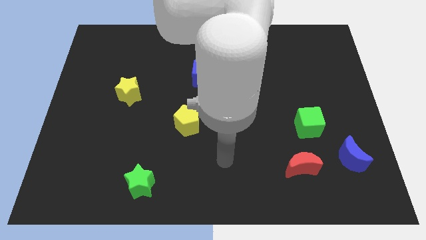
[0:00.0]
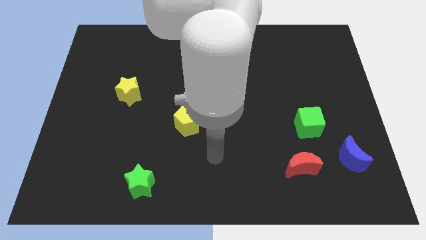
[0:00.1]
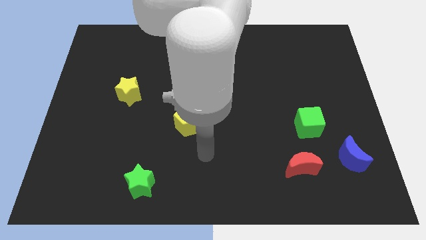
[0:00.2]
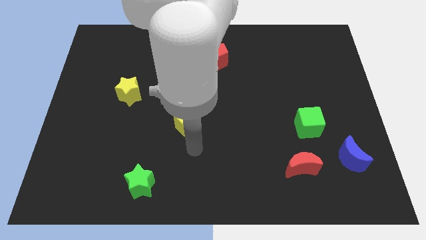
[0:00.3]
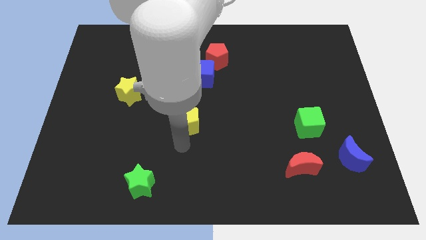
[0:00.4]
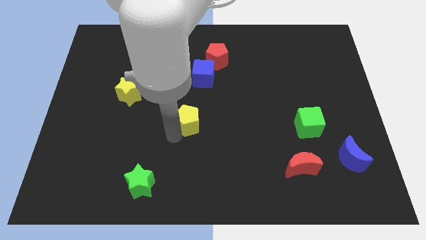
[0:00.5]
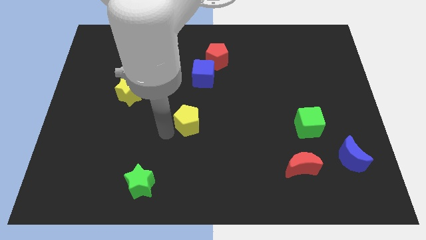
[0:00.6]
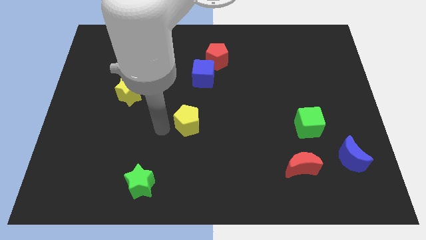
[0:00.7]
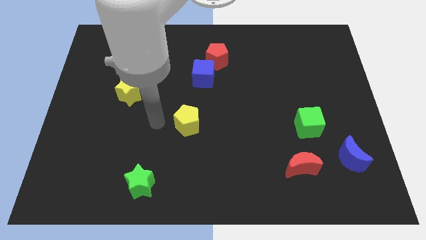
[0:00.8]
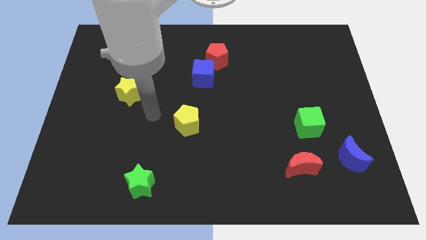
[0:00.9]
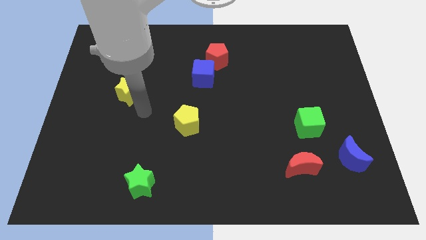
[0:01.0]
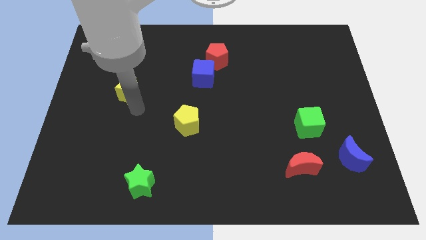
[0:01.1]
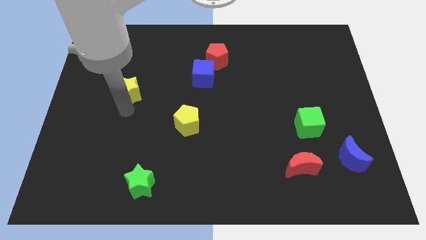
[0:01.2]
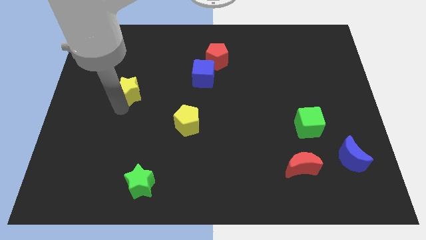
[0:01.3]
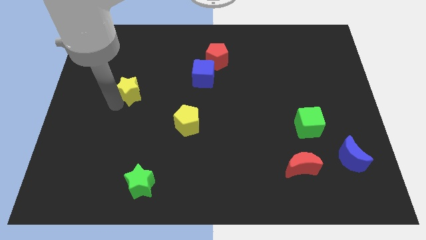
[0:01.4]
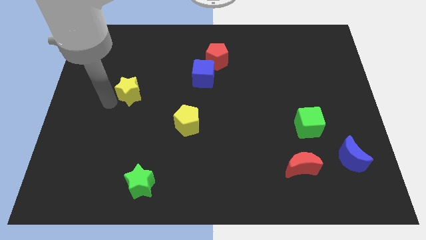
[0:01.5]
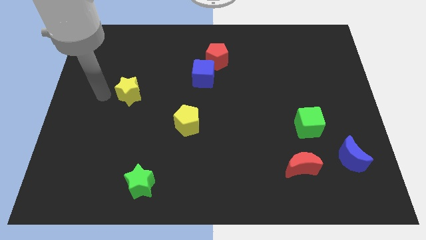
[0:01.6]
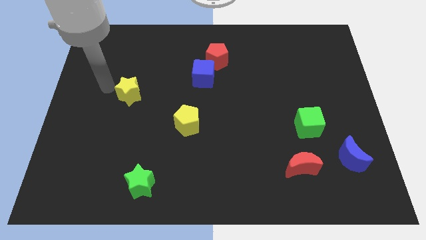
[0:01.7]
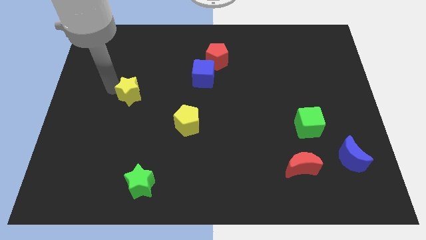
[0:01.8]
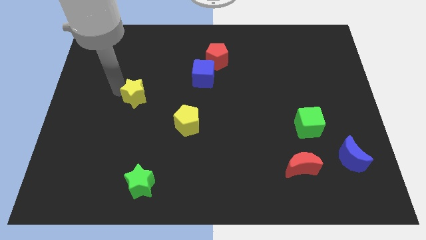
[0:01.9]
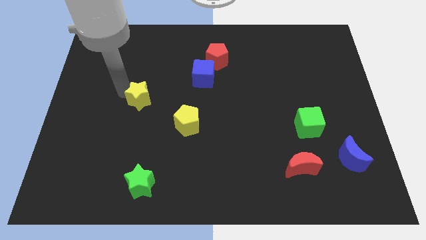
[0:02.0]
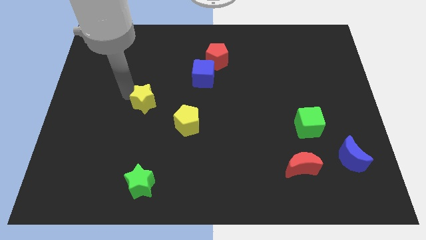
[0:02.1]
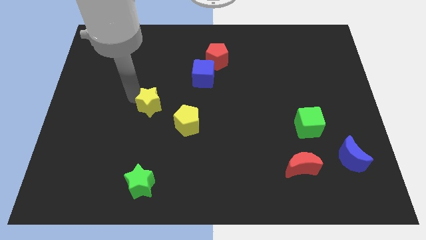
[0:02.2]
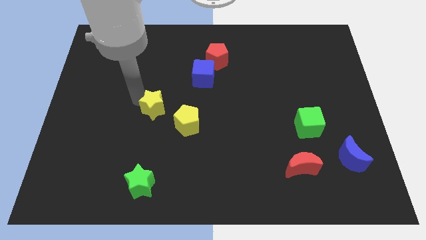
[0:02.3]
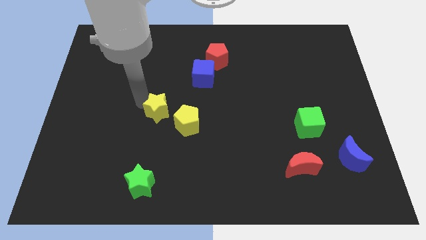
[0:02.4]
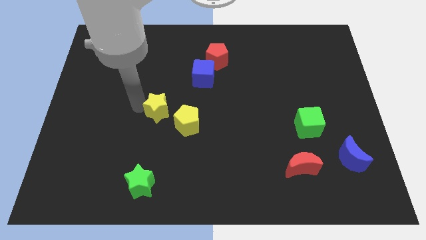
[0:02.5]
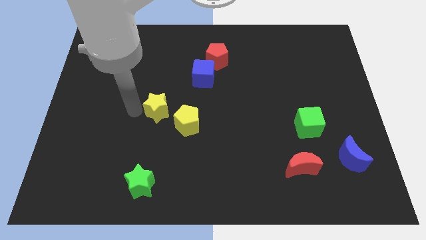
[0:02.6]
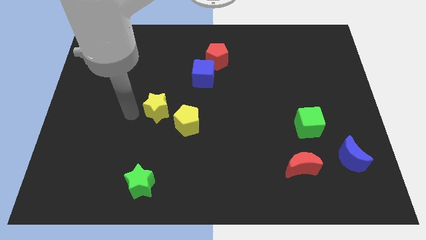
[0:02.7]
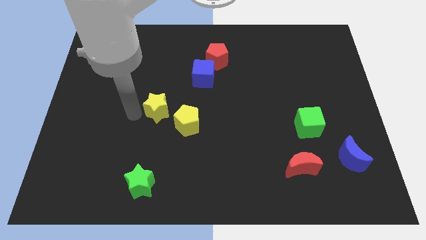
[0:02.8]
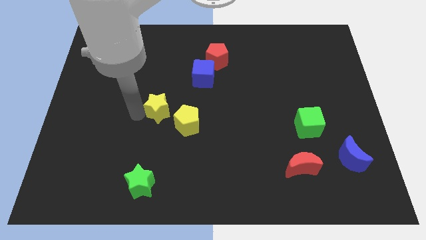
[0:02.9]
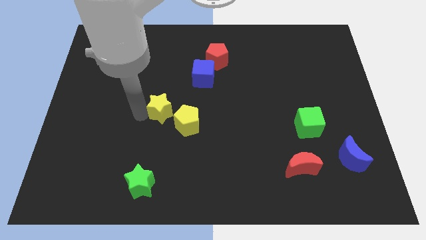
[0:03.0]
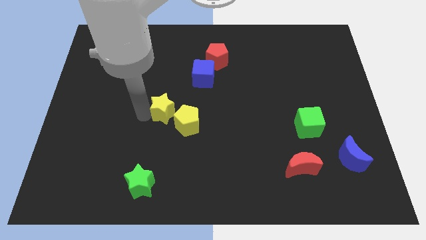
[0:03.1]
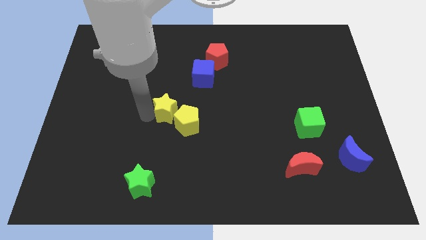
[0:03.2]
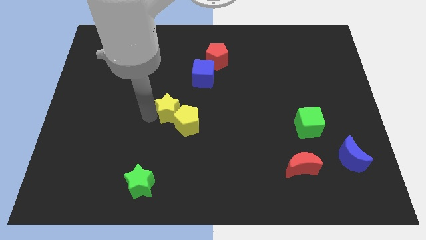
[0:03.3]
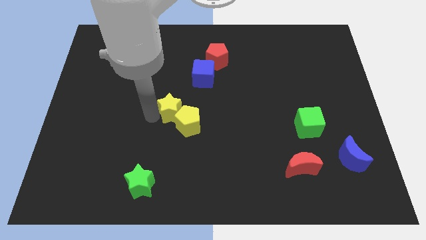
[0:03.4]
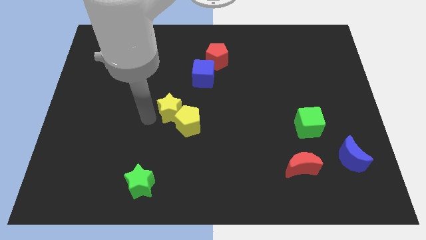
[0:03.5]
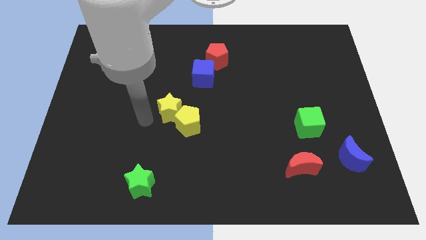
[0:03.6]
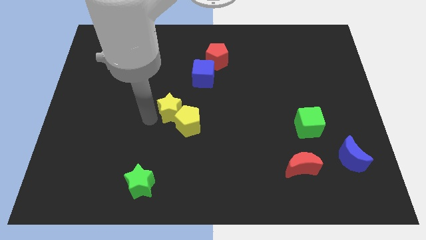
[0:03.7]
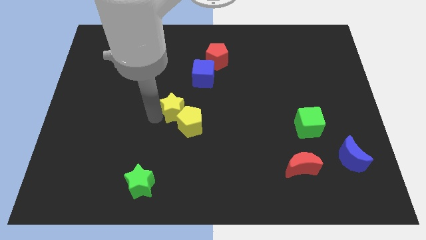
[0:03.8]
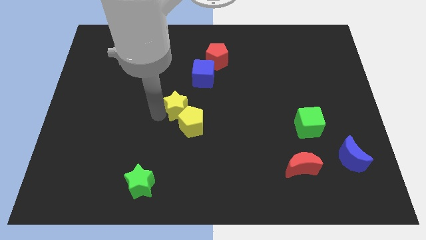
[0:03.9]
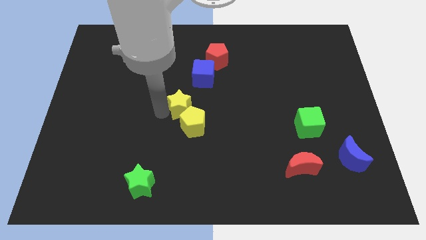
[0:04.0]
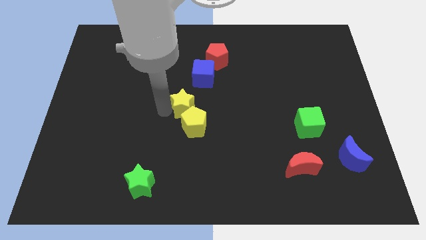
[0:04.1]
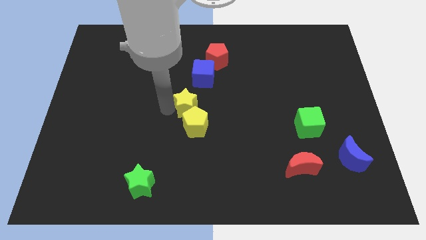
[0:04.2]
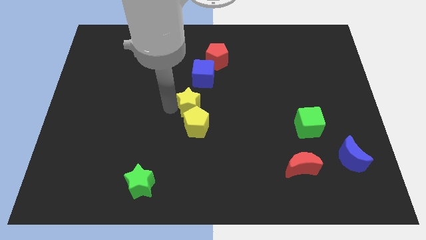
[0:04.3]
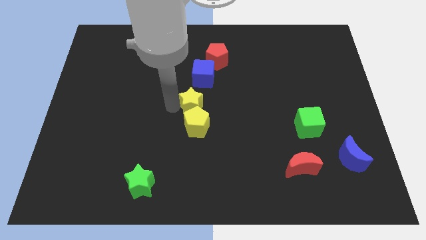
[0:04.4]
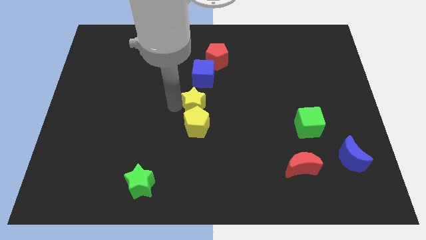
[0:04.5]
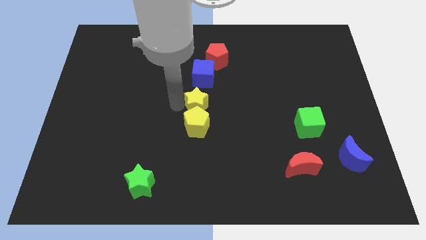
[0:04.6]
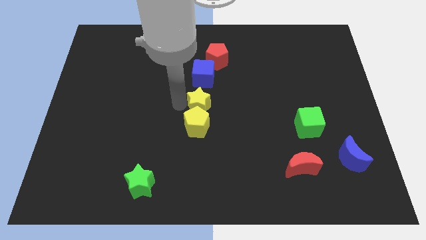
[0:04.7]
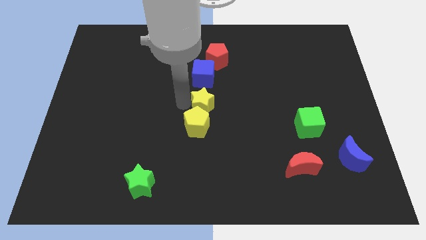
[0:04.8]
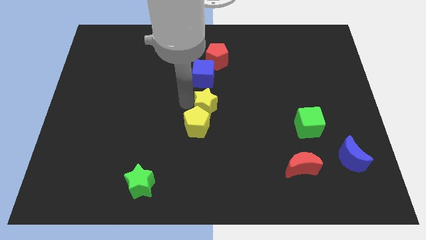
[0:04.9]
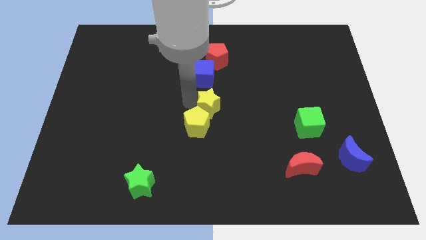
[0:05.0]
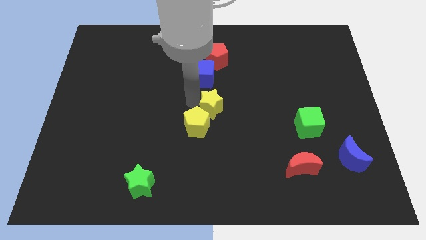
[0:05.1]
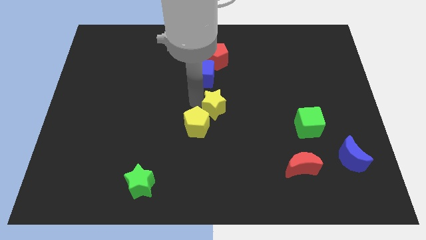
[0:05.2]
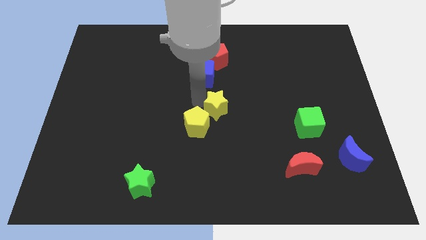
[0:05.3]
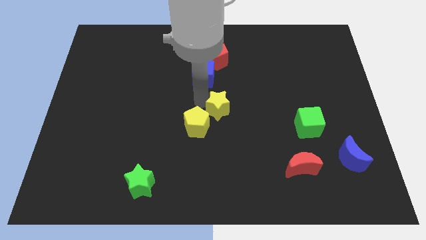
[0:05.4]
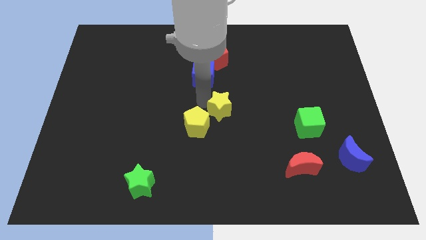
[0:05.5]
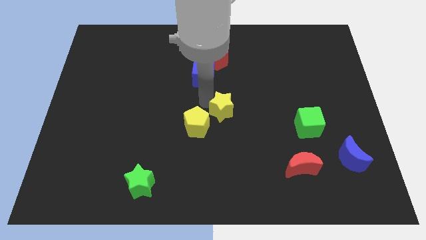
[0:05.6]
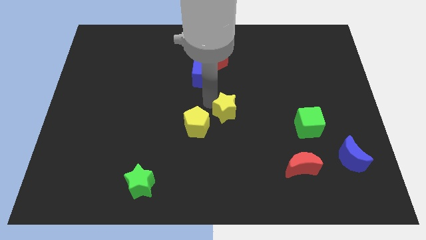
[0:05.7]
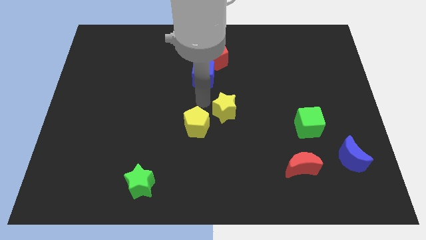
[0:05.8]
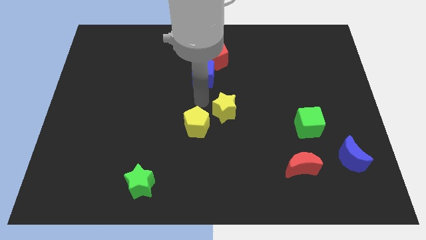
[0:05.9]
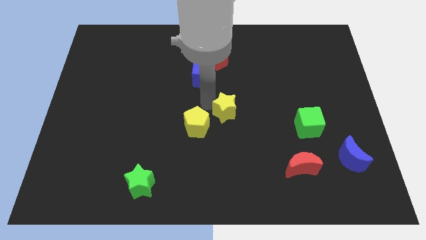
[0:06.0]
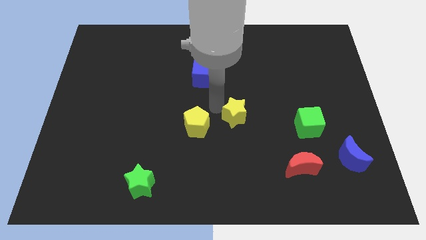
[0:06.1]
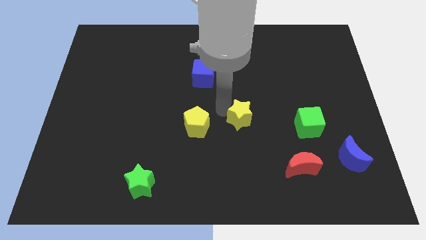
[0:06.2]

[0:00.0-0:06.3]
slide the yellow star to the left of the green cube

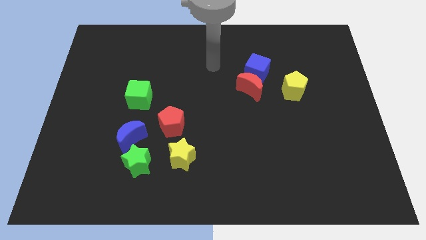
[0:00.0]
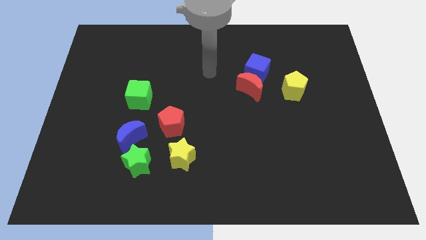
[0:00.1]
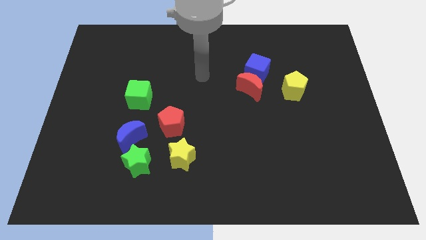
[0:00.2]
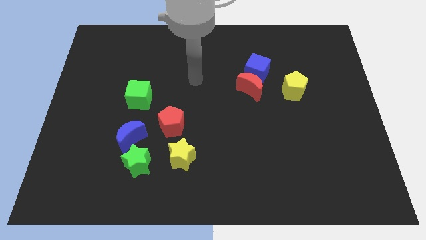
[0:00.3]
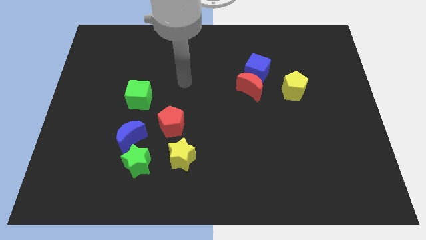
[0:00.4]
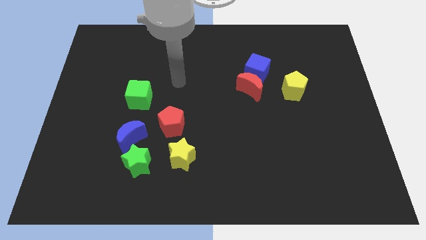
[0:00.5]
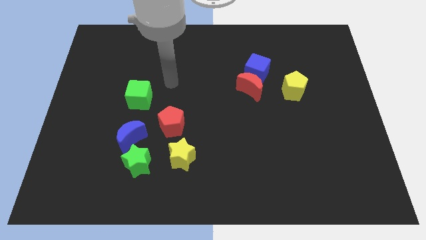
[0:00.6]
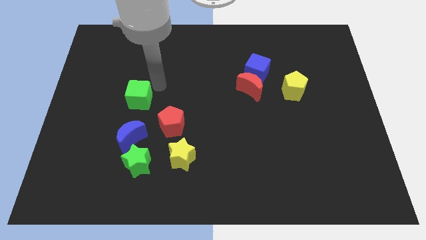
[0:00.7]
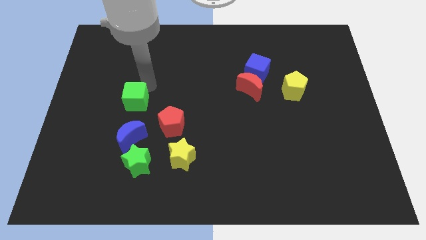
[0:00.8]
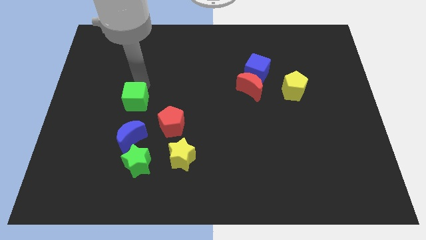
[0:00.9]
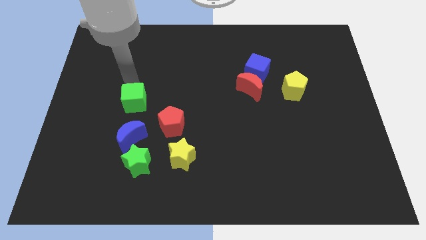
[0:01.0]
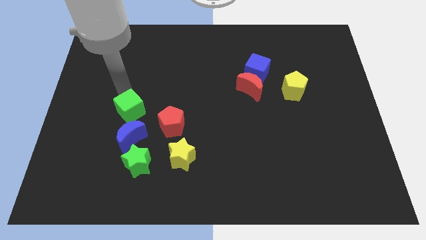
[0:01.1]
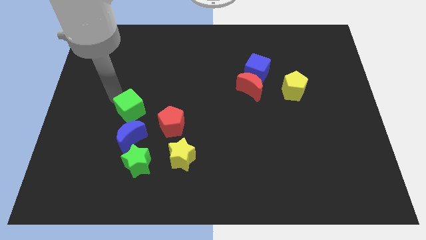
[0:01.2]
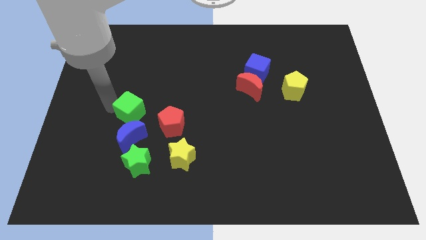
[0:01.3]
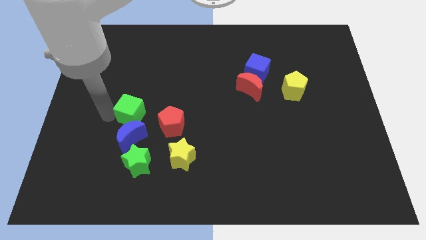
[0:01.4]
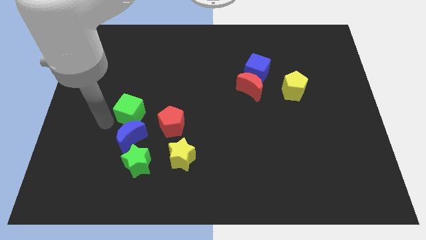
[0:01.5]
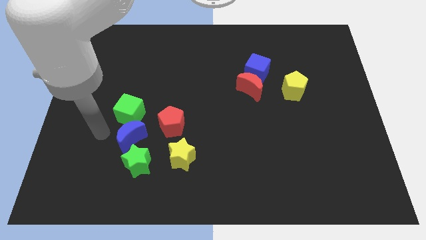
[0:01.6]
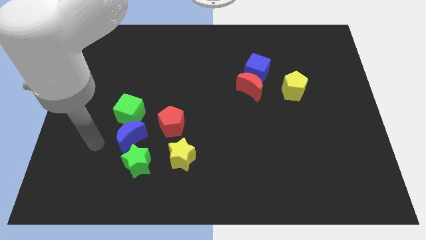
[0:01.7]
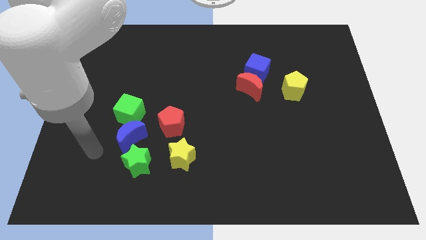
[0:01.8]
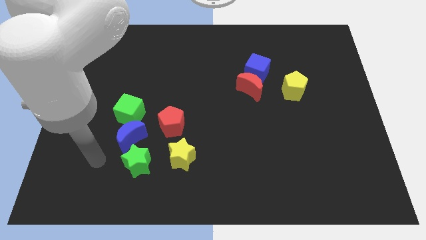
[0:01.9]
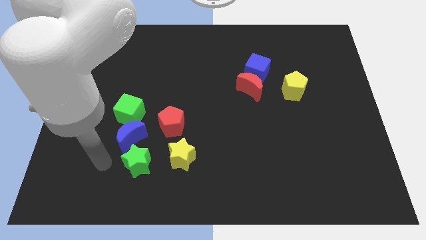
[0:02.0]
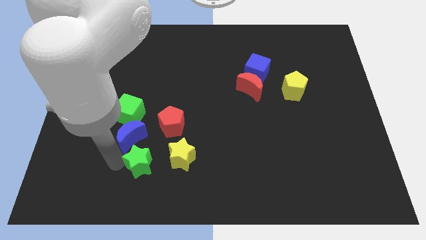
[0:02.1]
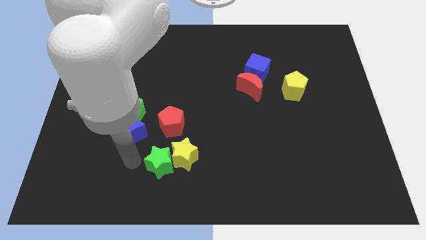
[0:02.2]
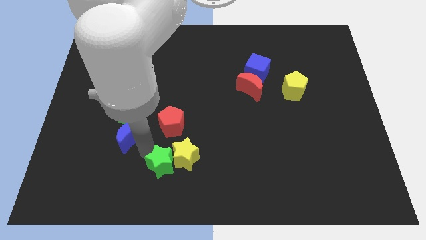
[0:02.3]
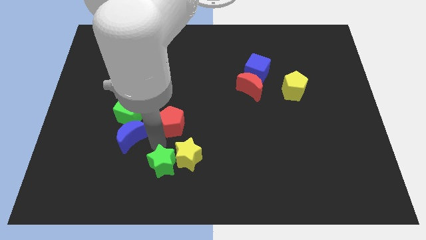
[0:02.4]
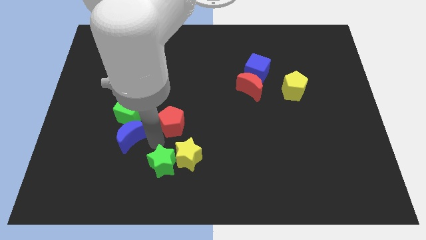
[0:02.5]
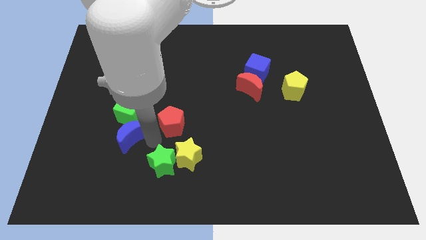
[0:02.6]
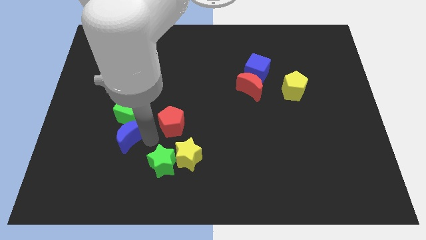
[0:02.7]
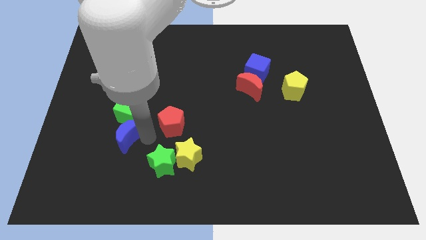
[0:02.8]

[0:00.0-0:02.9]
push the blue moon to the bottom left of the green cube
